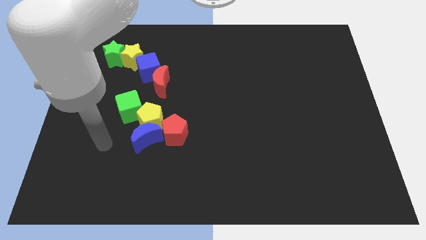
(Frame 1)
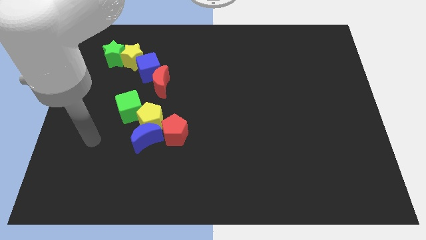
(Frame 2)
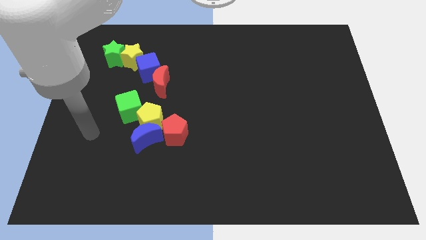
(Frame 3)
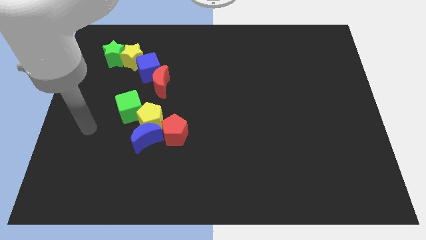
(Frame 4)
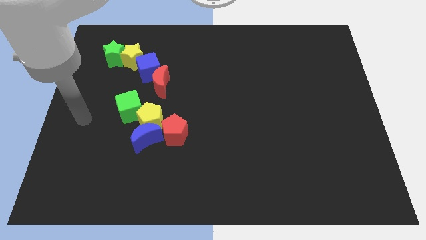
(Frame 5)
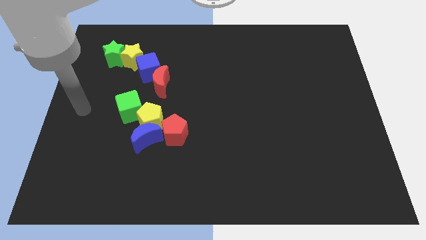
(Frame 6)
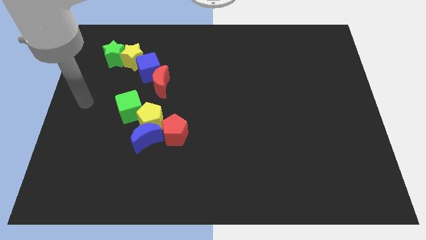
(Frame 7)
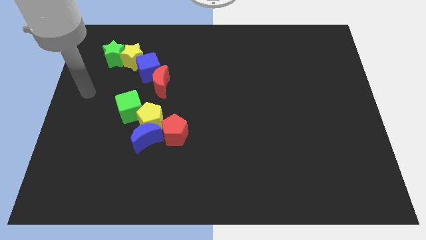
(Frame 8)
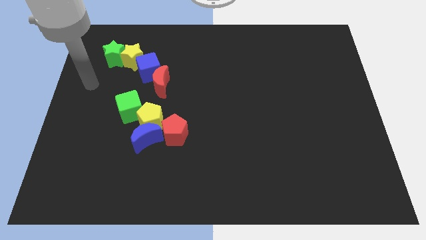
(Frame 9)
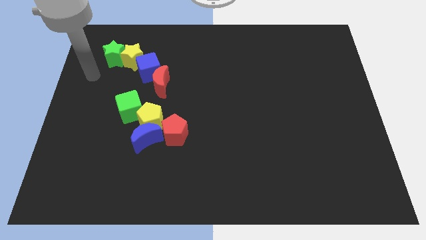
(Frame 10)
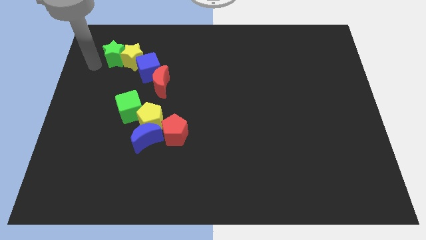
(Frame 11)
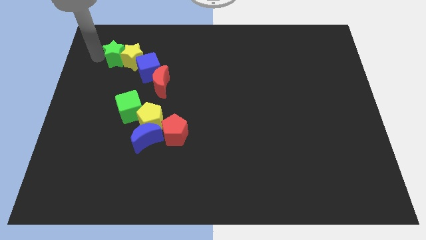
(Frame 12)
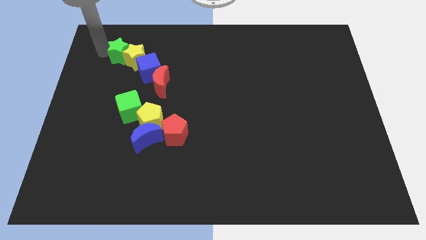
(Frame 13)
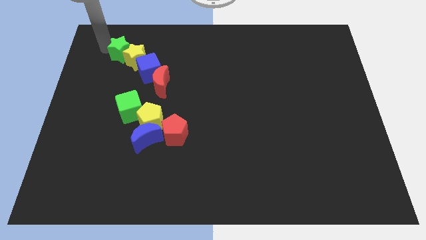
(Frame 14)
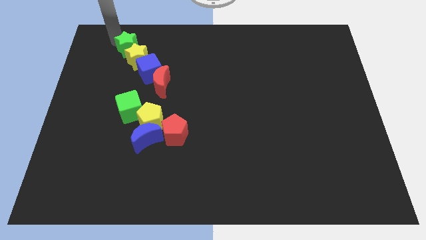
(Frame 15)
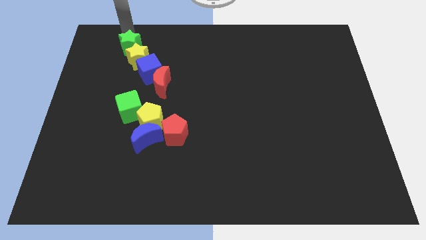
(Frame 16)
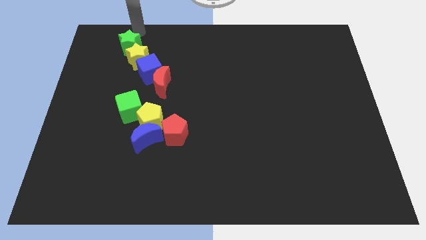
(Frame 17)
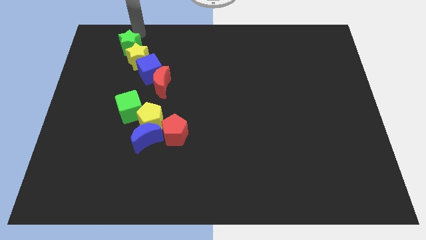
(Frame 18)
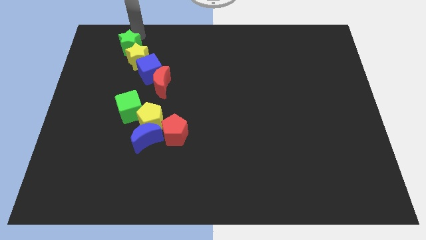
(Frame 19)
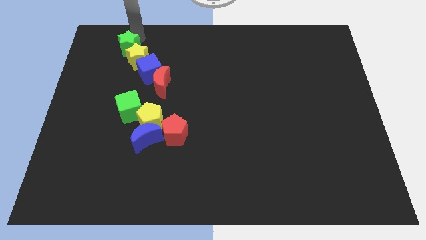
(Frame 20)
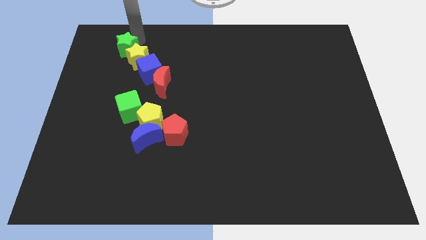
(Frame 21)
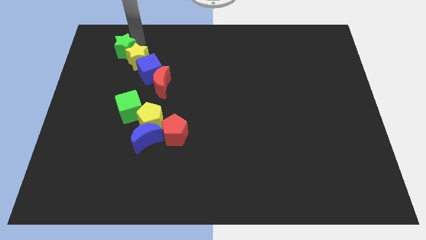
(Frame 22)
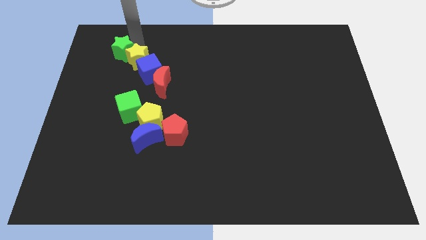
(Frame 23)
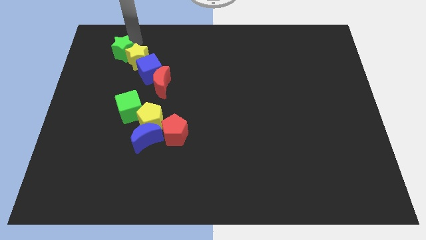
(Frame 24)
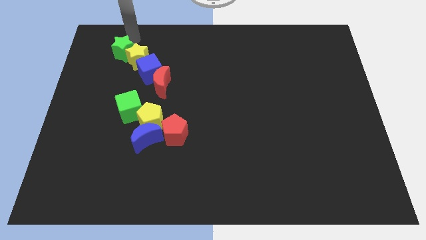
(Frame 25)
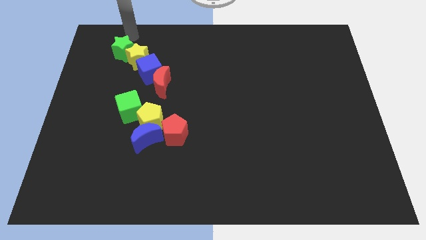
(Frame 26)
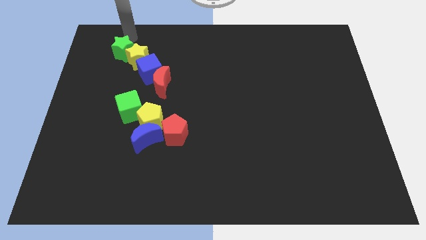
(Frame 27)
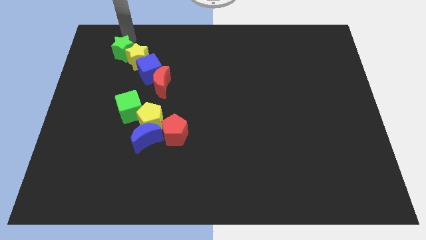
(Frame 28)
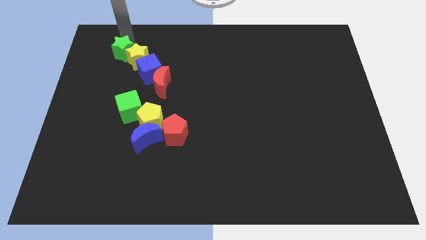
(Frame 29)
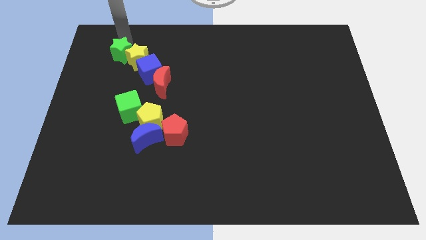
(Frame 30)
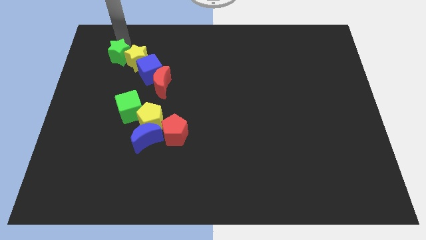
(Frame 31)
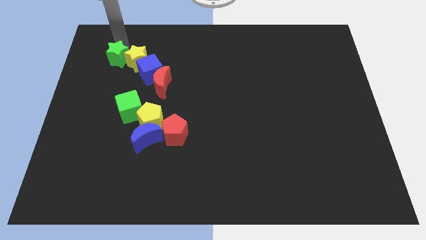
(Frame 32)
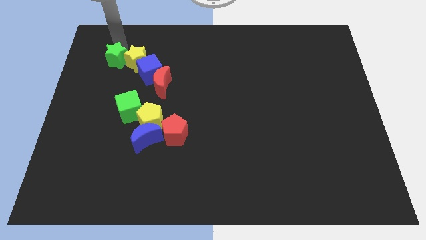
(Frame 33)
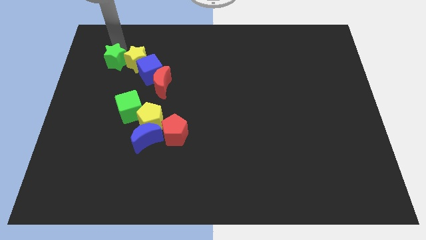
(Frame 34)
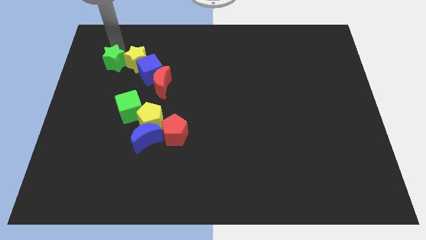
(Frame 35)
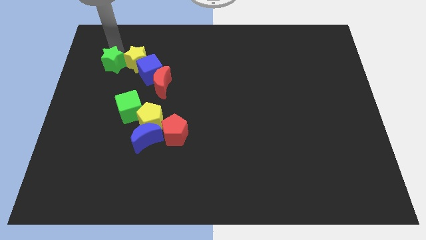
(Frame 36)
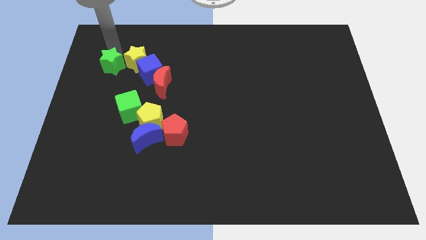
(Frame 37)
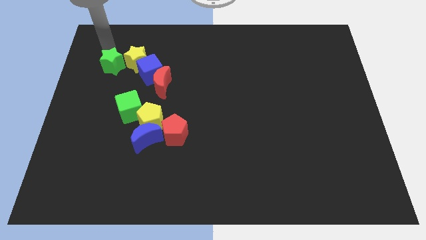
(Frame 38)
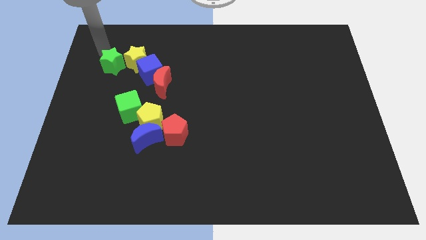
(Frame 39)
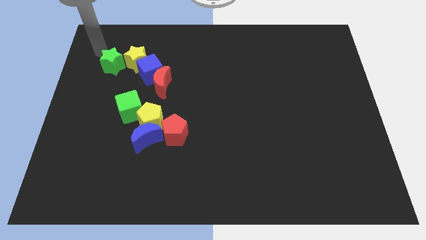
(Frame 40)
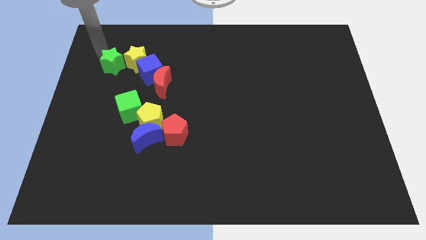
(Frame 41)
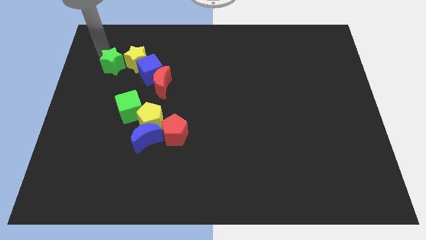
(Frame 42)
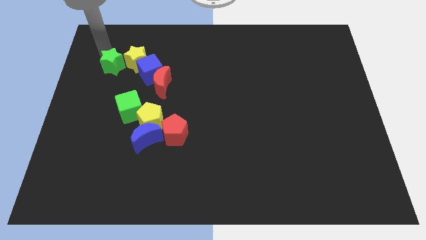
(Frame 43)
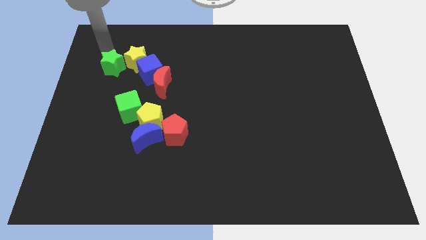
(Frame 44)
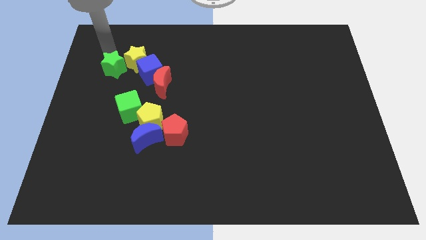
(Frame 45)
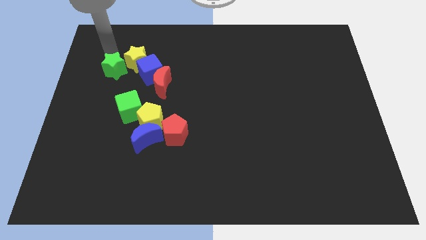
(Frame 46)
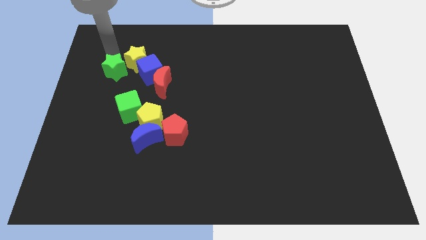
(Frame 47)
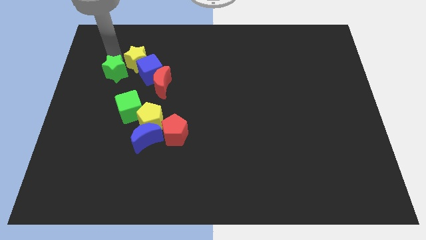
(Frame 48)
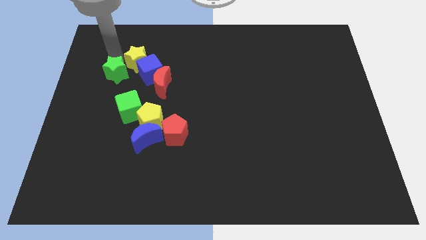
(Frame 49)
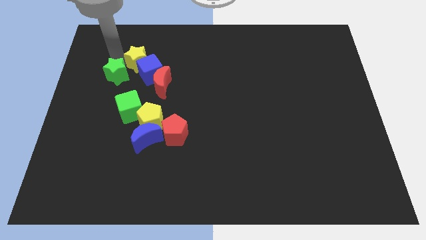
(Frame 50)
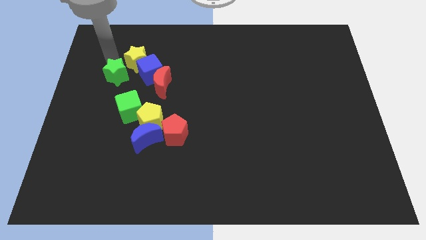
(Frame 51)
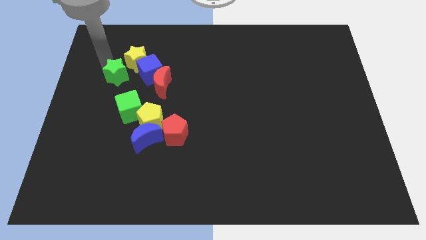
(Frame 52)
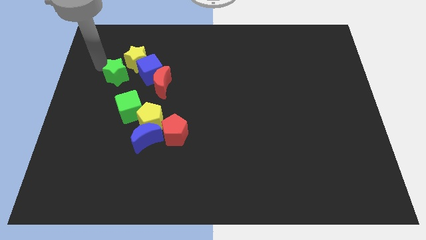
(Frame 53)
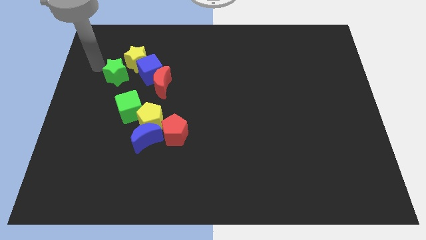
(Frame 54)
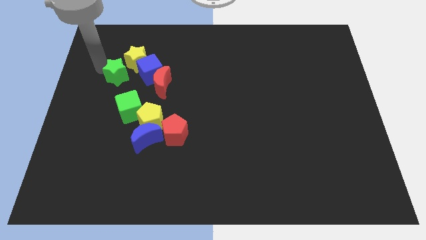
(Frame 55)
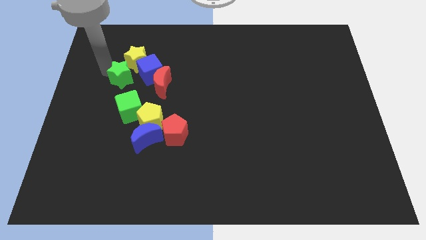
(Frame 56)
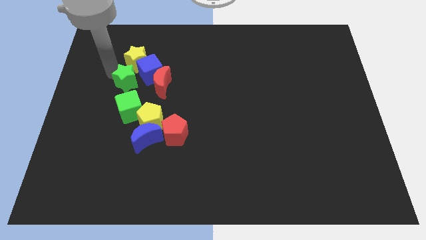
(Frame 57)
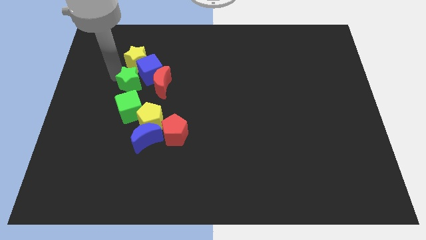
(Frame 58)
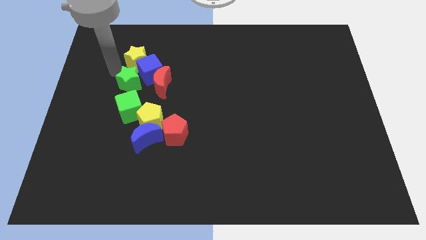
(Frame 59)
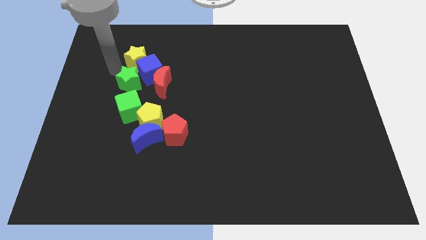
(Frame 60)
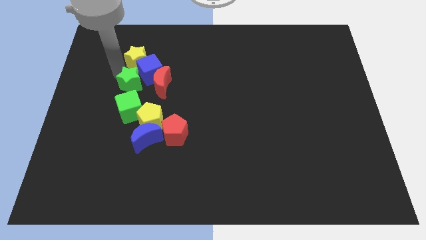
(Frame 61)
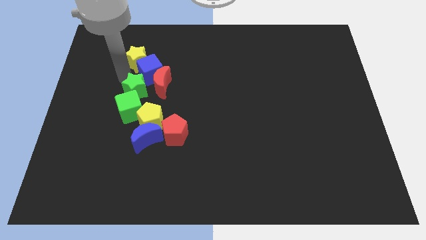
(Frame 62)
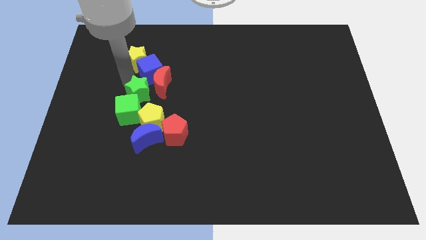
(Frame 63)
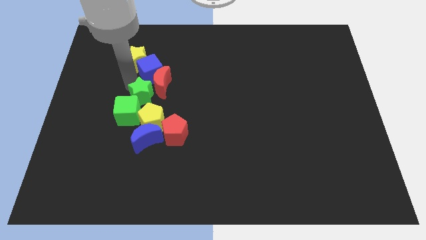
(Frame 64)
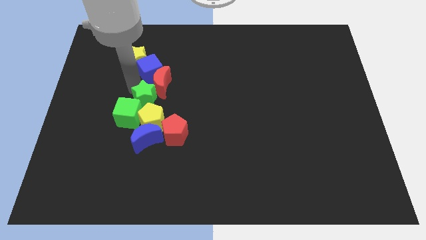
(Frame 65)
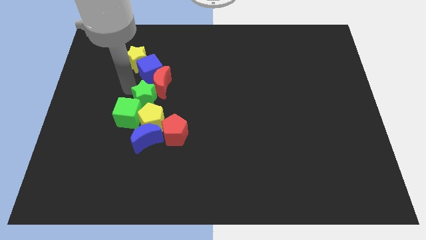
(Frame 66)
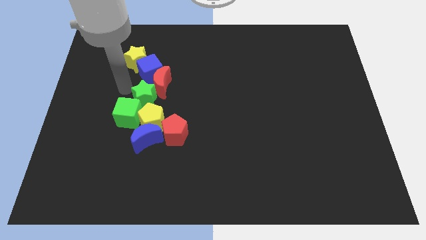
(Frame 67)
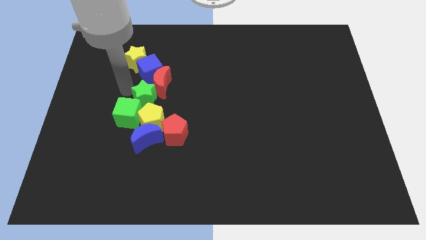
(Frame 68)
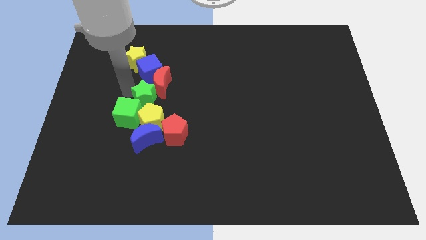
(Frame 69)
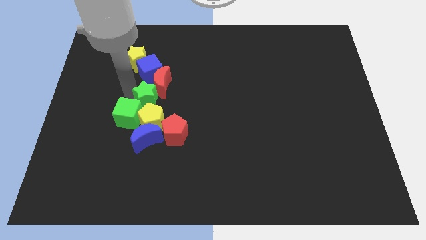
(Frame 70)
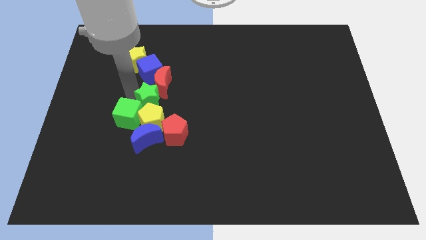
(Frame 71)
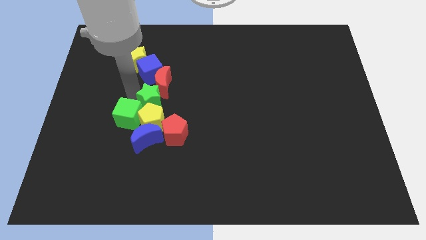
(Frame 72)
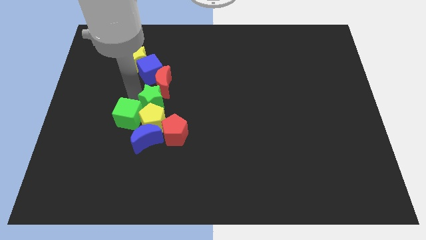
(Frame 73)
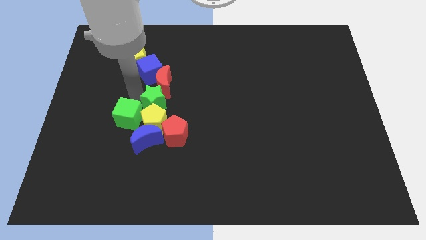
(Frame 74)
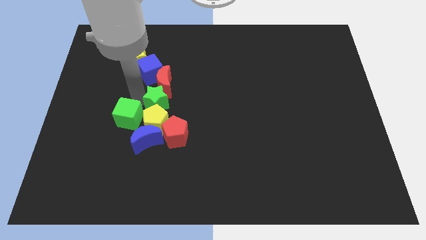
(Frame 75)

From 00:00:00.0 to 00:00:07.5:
push the green star diagonally down and right

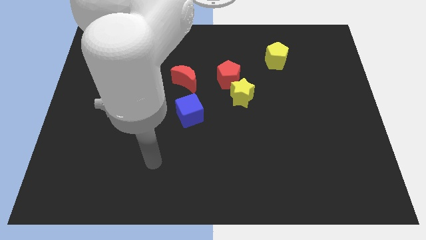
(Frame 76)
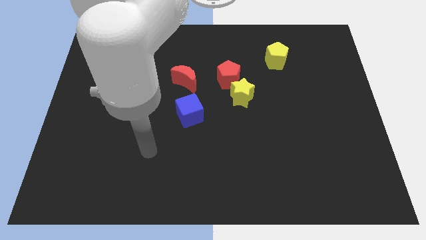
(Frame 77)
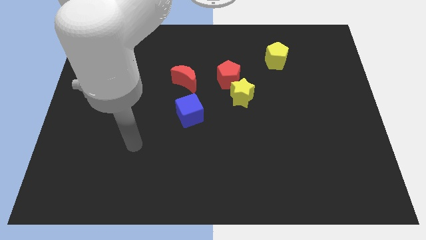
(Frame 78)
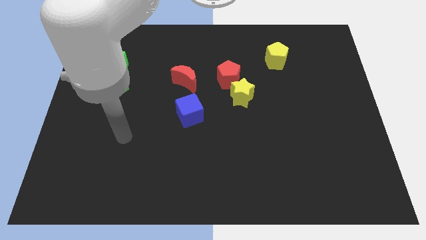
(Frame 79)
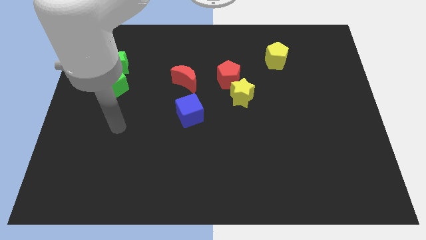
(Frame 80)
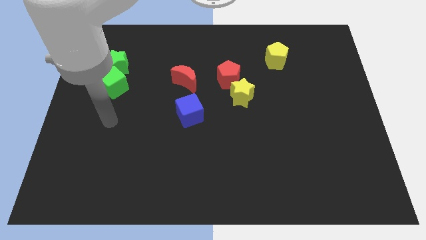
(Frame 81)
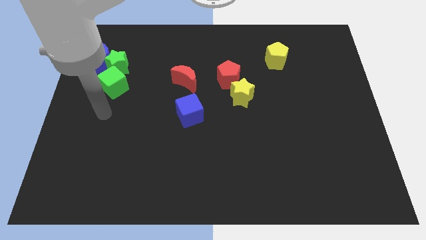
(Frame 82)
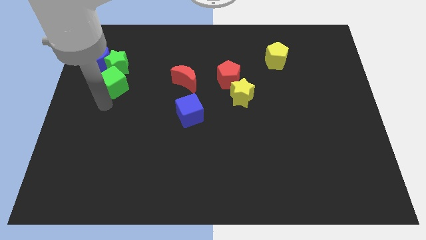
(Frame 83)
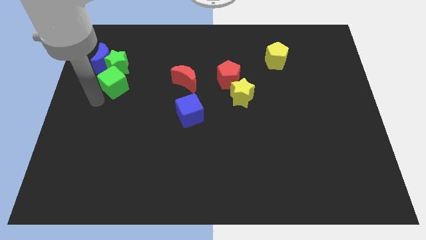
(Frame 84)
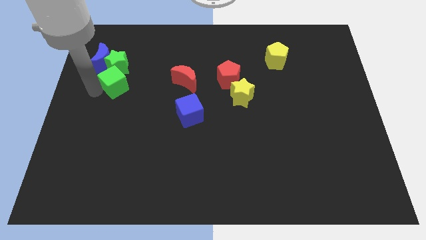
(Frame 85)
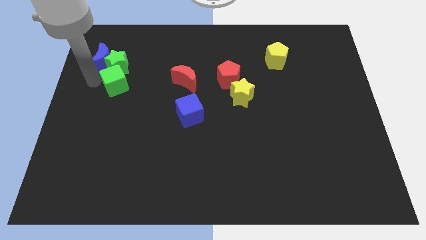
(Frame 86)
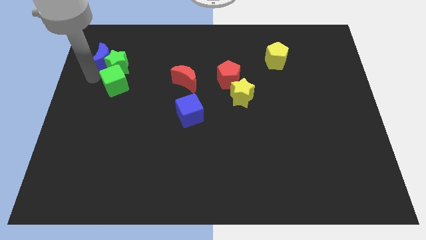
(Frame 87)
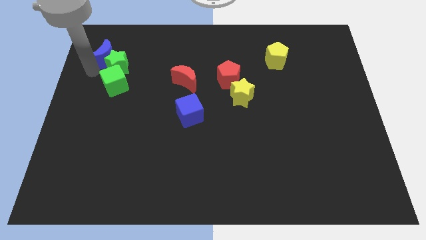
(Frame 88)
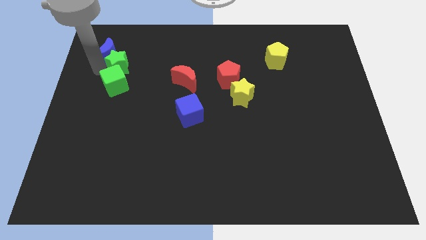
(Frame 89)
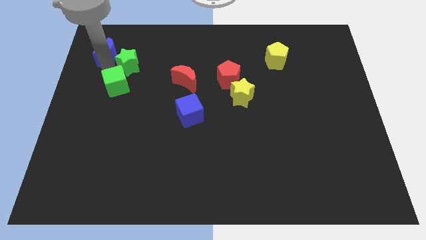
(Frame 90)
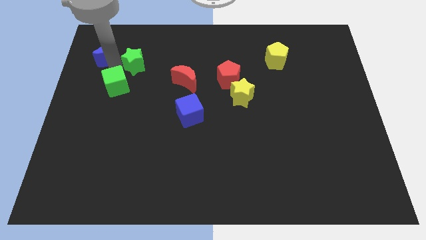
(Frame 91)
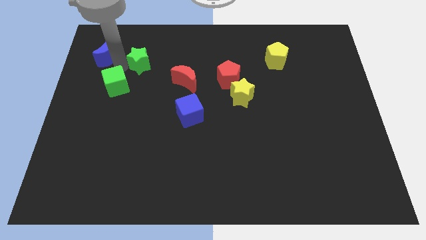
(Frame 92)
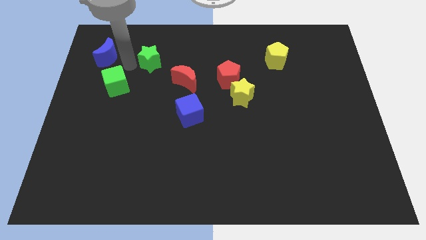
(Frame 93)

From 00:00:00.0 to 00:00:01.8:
move the green star a little right
